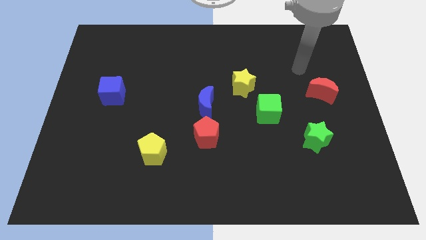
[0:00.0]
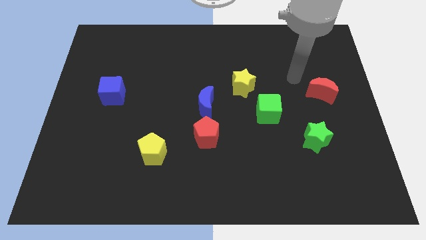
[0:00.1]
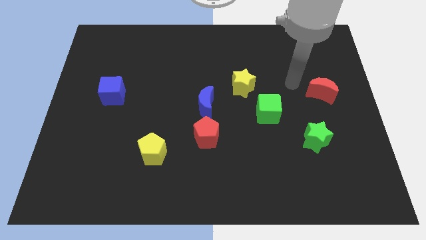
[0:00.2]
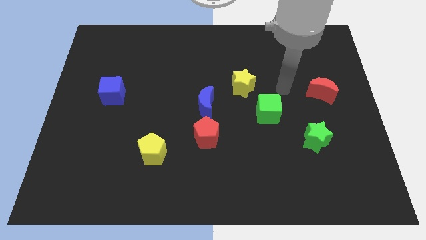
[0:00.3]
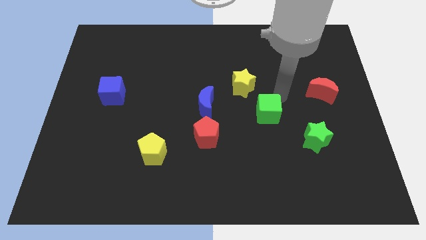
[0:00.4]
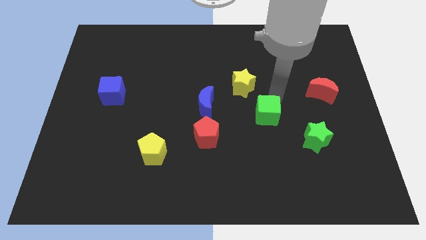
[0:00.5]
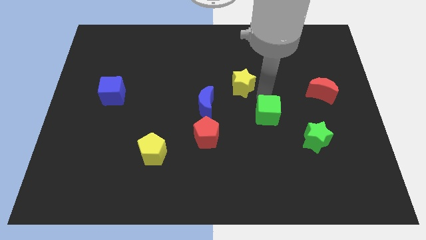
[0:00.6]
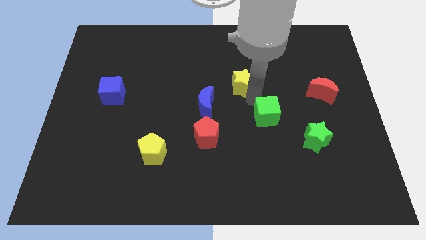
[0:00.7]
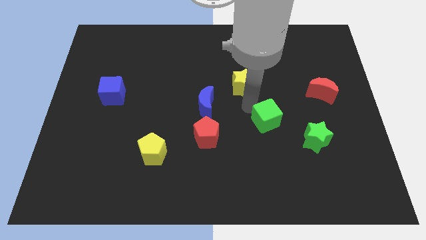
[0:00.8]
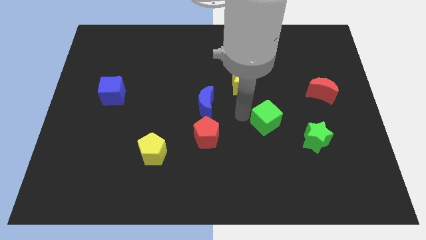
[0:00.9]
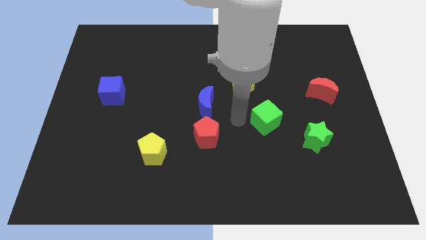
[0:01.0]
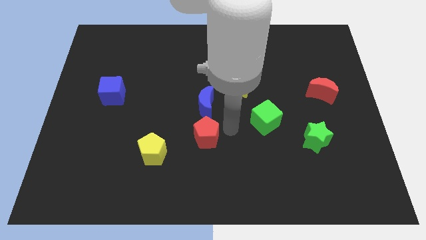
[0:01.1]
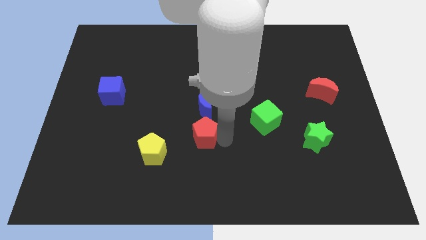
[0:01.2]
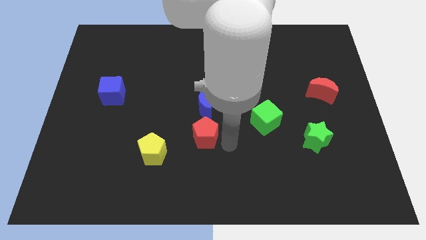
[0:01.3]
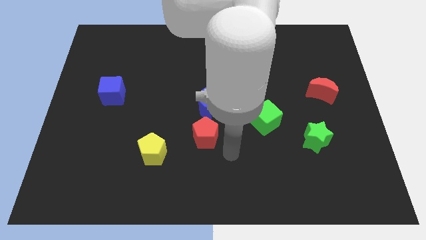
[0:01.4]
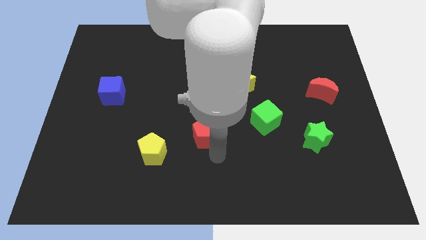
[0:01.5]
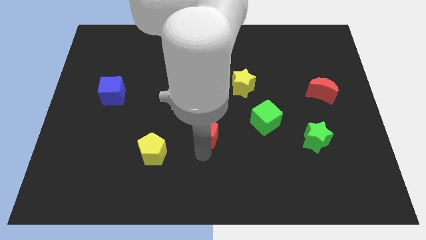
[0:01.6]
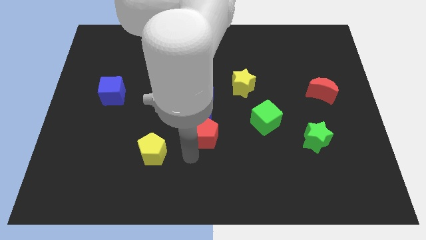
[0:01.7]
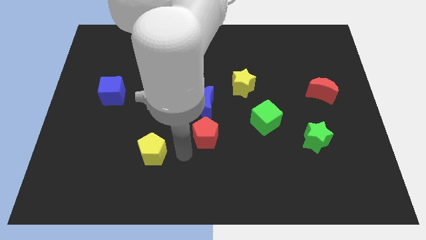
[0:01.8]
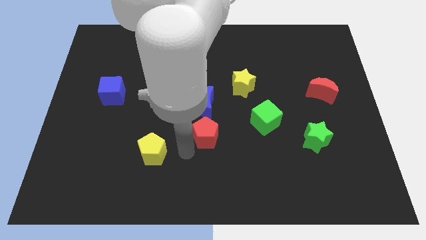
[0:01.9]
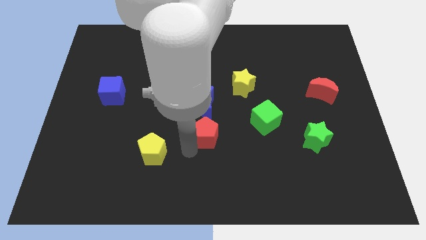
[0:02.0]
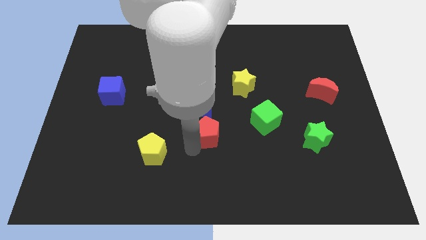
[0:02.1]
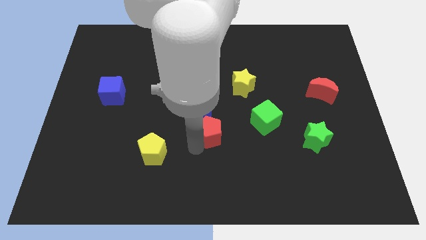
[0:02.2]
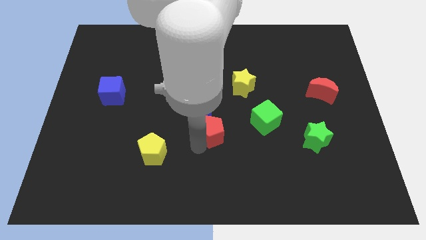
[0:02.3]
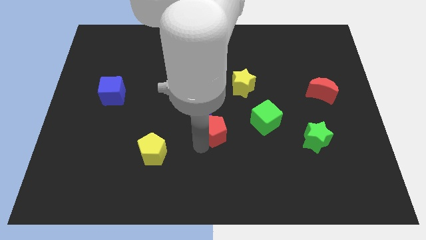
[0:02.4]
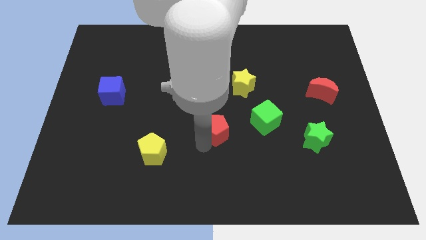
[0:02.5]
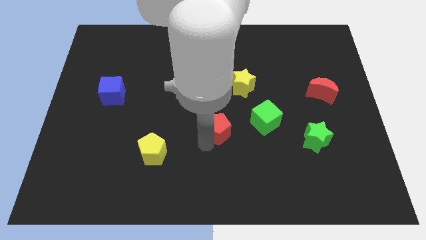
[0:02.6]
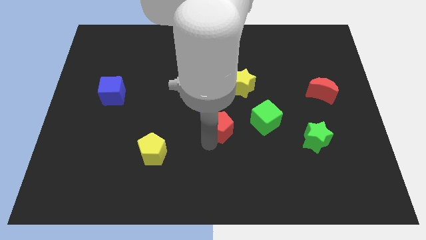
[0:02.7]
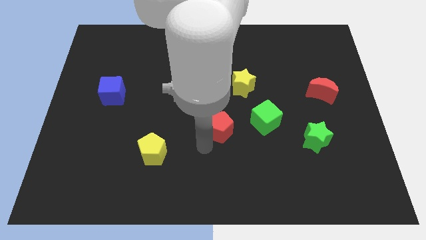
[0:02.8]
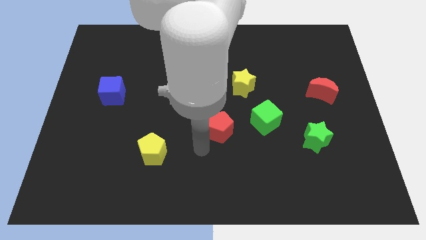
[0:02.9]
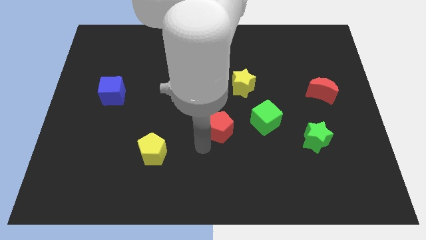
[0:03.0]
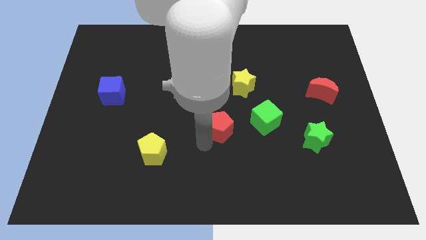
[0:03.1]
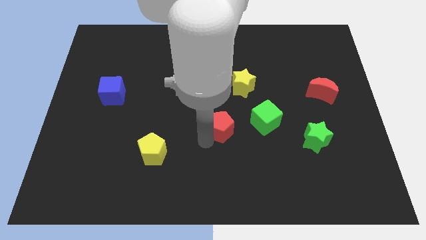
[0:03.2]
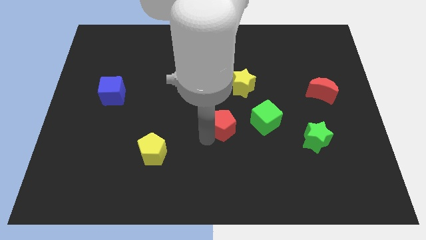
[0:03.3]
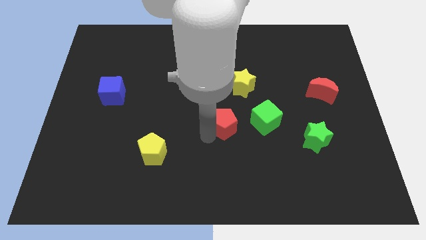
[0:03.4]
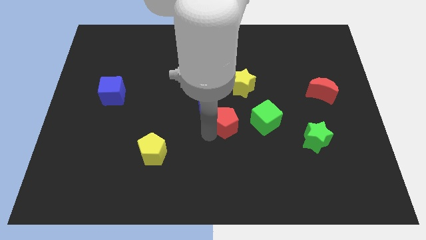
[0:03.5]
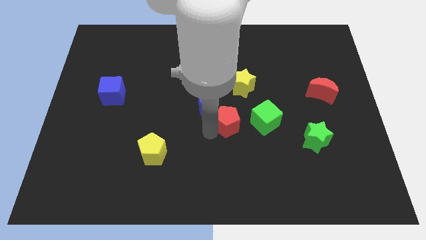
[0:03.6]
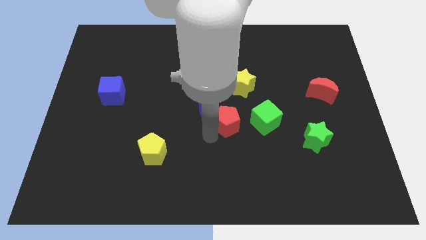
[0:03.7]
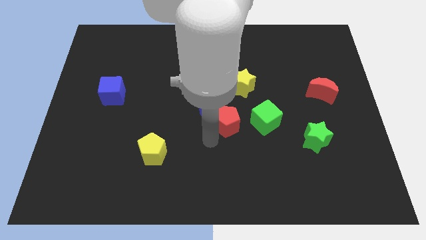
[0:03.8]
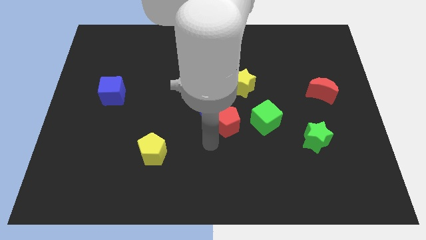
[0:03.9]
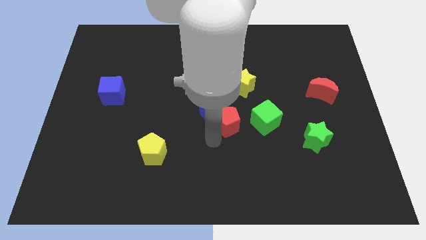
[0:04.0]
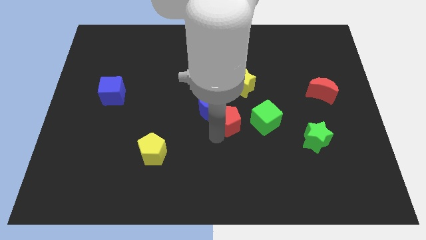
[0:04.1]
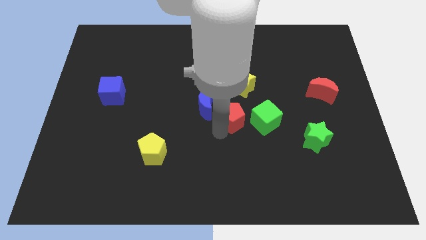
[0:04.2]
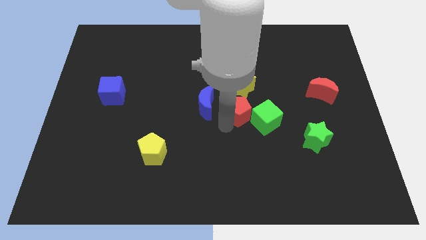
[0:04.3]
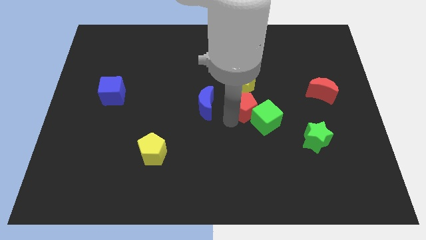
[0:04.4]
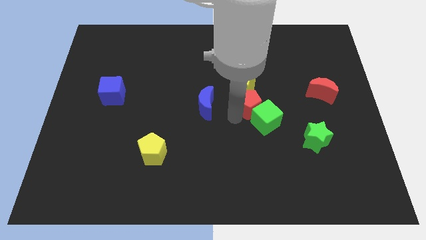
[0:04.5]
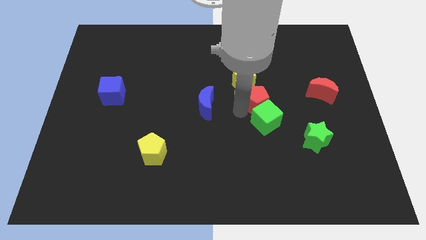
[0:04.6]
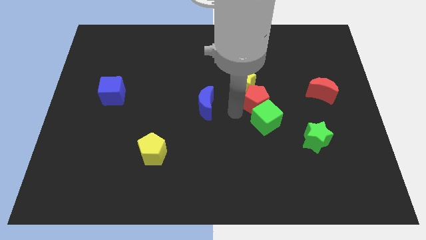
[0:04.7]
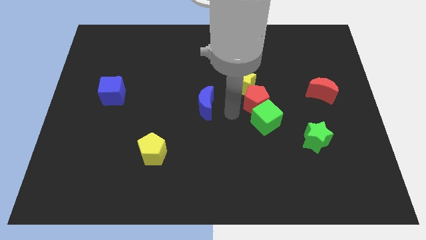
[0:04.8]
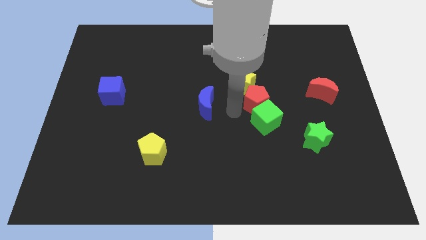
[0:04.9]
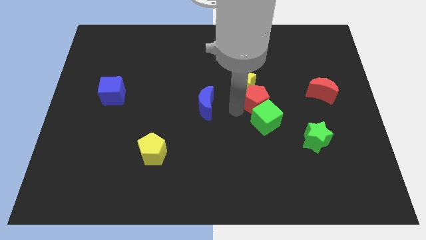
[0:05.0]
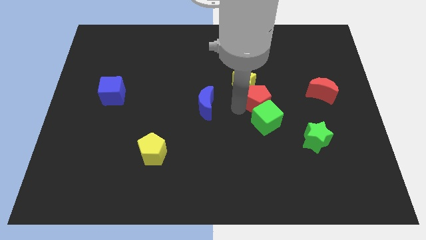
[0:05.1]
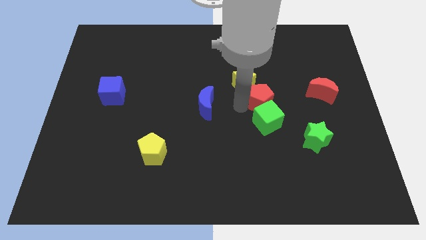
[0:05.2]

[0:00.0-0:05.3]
move the red pentagon to the left of the red moon

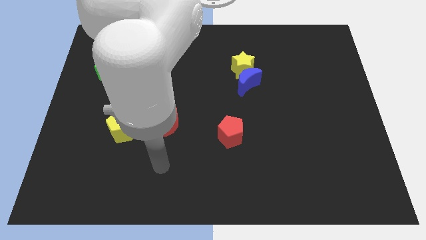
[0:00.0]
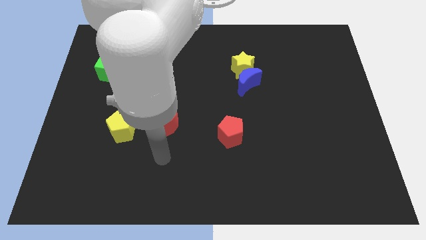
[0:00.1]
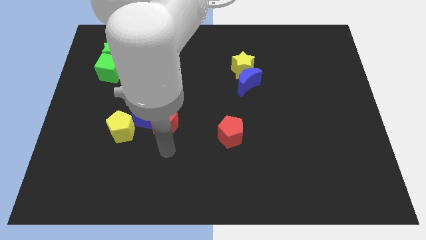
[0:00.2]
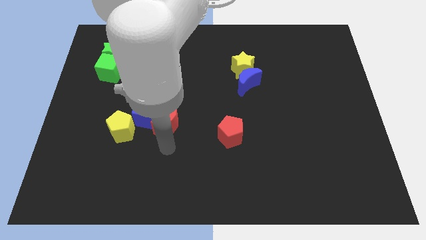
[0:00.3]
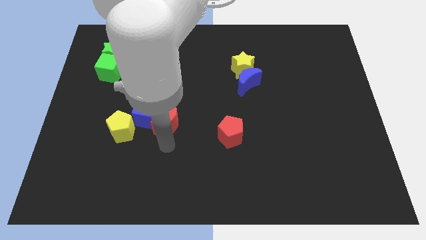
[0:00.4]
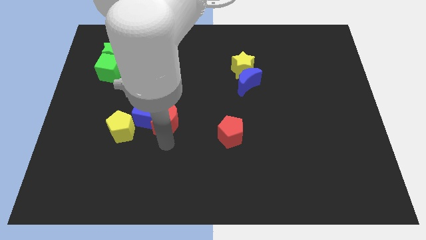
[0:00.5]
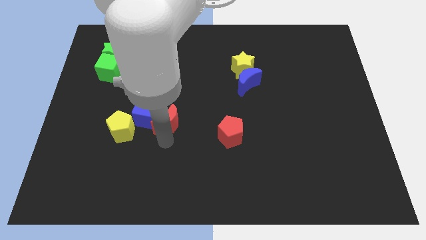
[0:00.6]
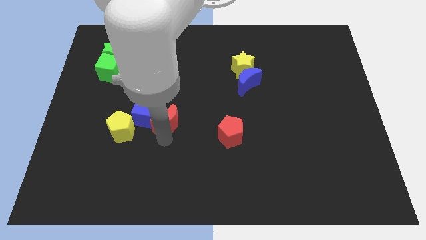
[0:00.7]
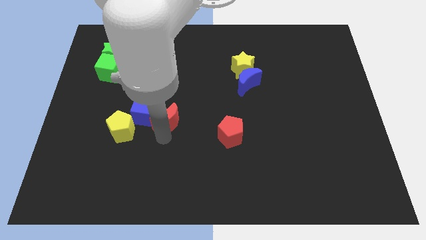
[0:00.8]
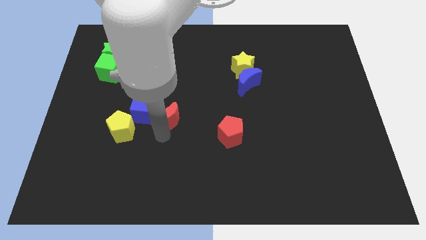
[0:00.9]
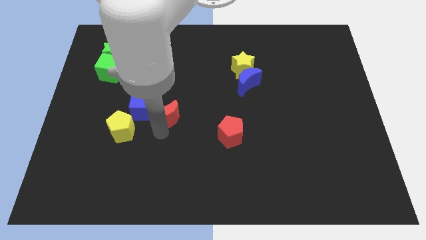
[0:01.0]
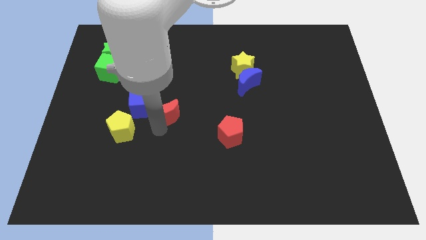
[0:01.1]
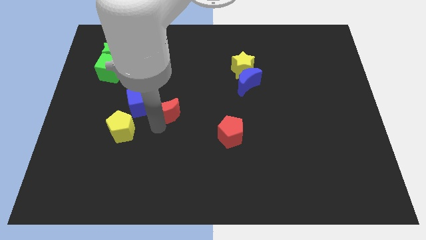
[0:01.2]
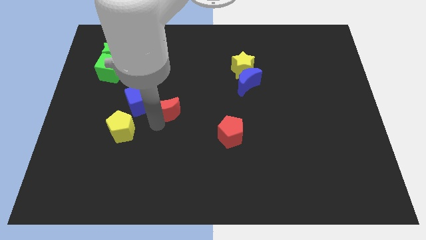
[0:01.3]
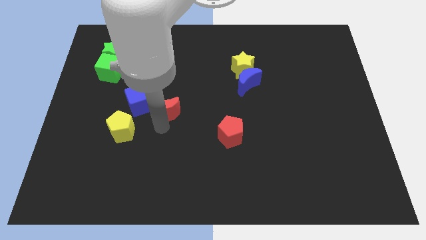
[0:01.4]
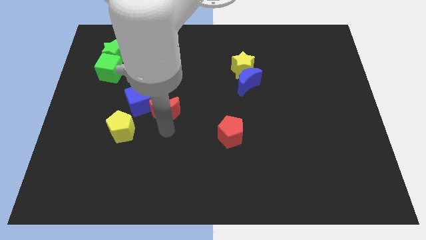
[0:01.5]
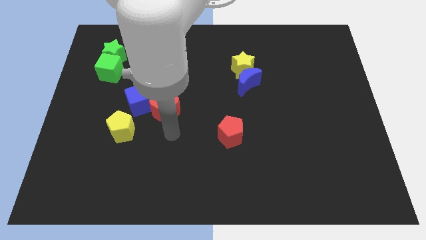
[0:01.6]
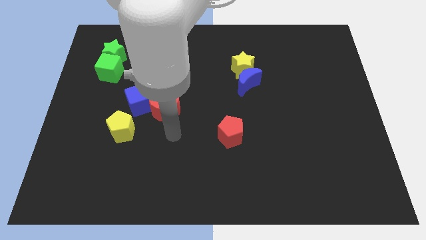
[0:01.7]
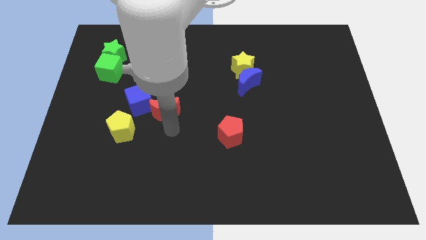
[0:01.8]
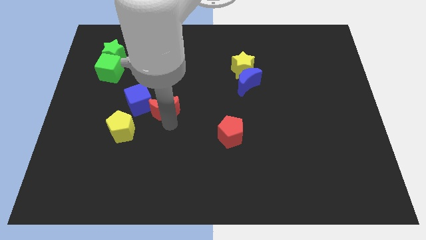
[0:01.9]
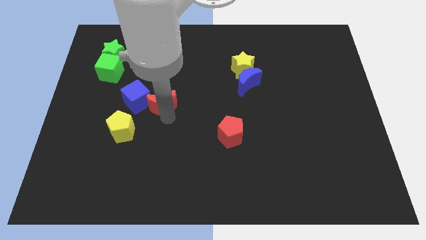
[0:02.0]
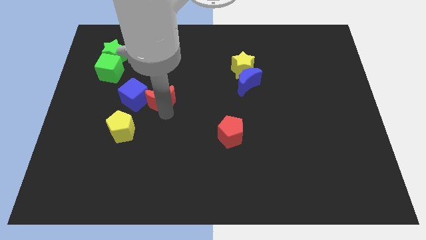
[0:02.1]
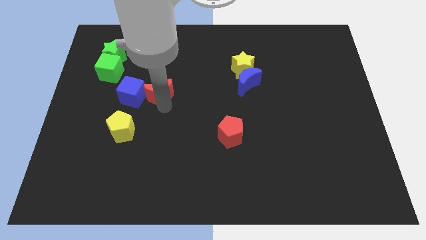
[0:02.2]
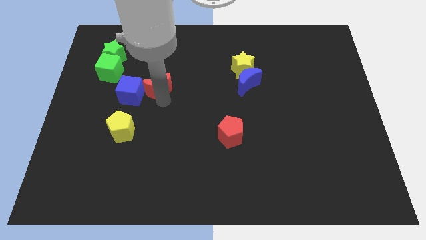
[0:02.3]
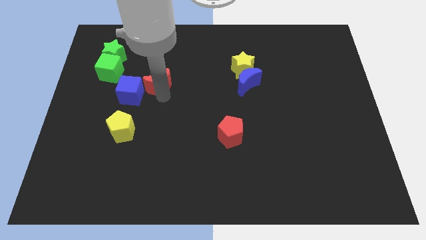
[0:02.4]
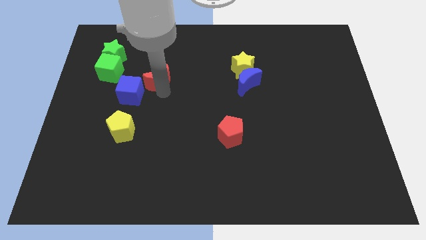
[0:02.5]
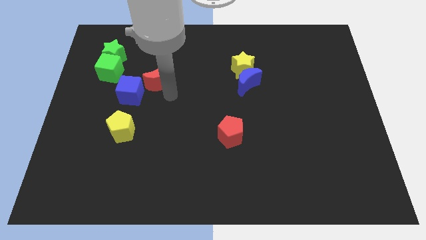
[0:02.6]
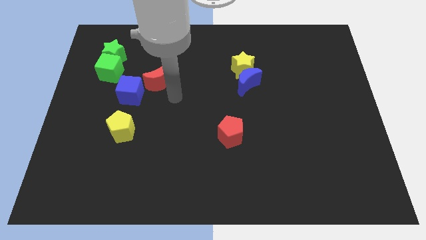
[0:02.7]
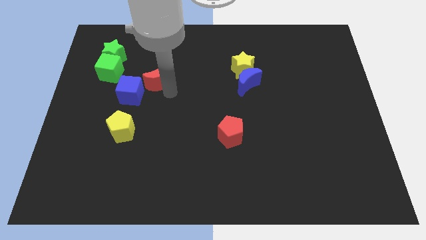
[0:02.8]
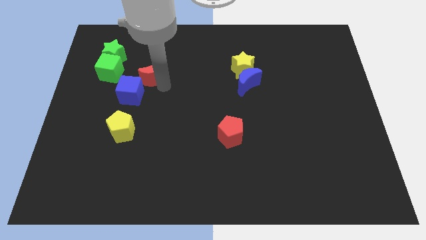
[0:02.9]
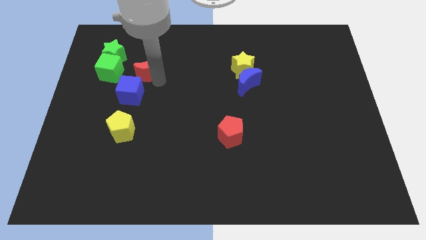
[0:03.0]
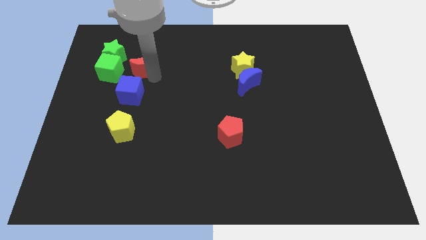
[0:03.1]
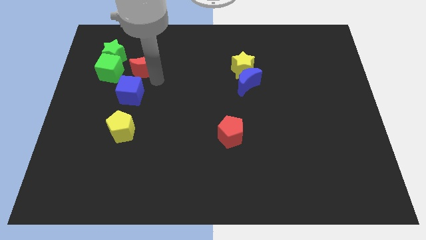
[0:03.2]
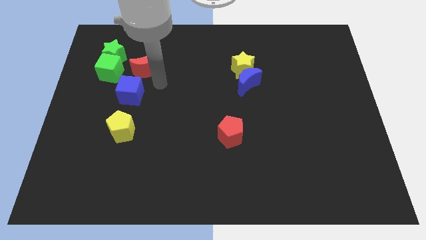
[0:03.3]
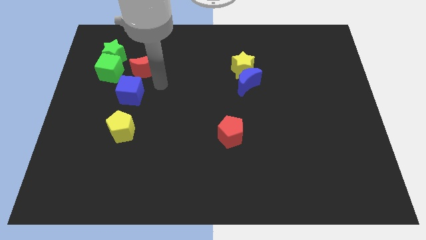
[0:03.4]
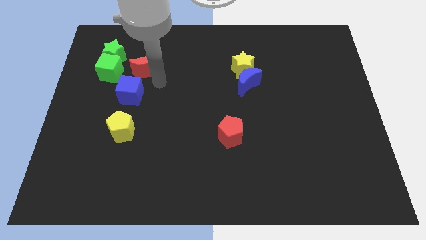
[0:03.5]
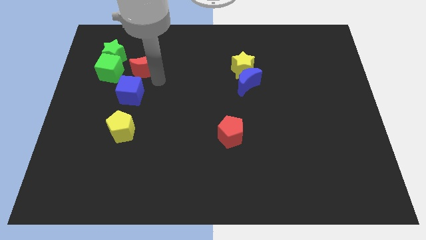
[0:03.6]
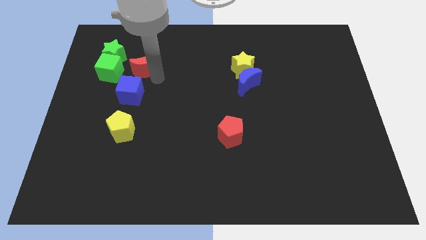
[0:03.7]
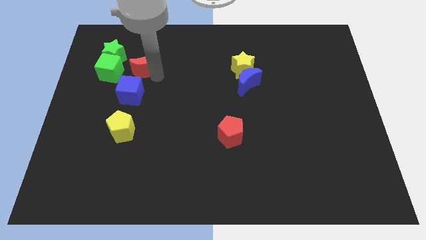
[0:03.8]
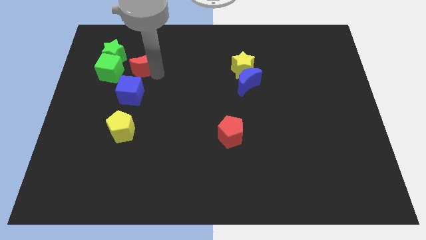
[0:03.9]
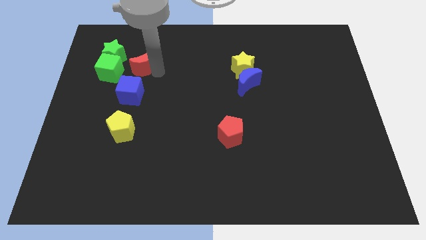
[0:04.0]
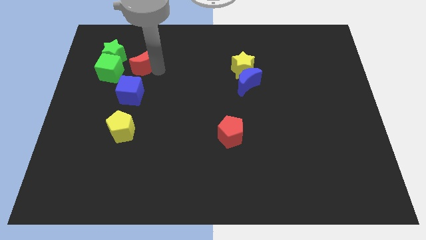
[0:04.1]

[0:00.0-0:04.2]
put the red moon diagonally up and to the right of the green cube
